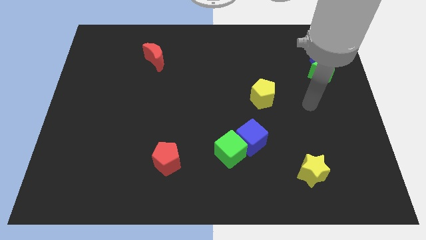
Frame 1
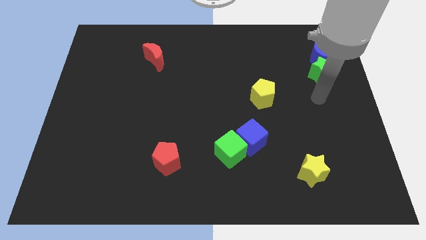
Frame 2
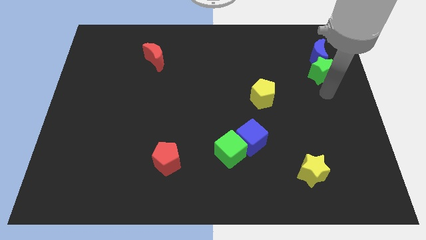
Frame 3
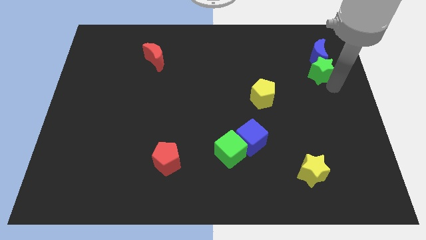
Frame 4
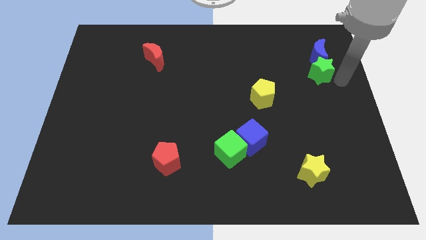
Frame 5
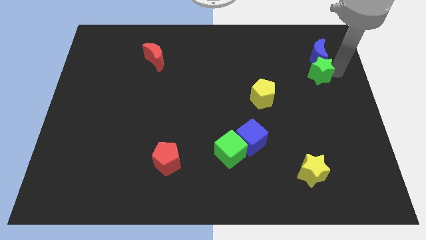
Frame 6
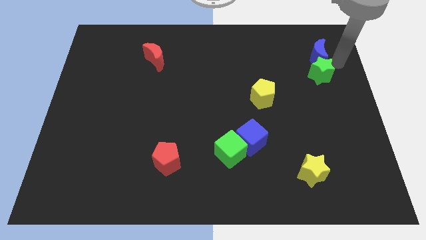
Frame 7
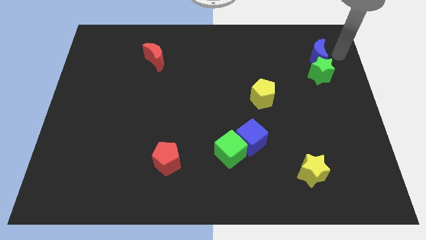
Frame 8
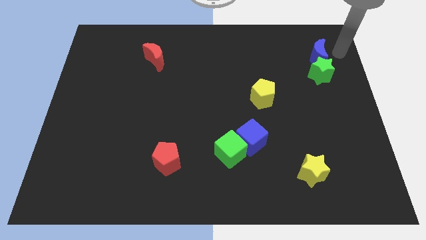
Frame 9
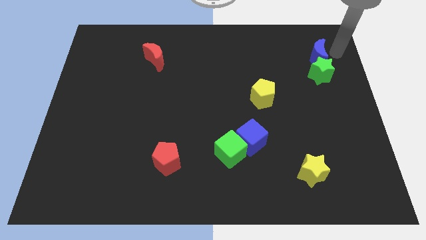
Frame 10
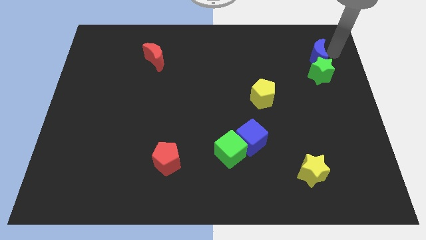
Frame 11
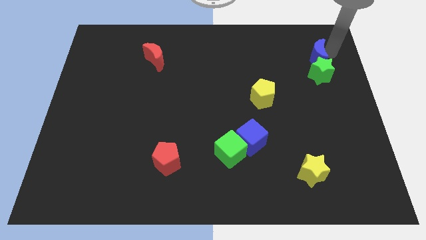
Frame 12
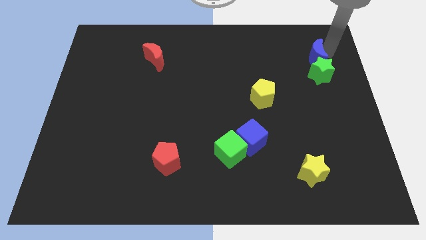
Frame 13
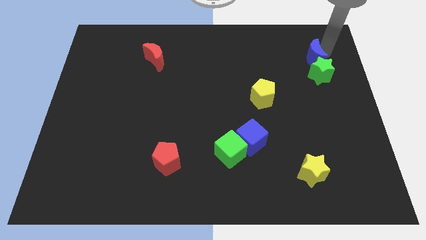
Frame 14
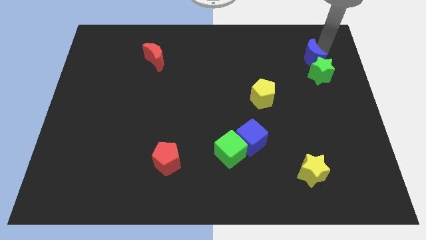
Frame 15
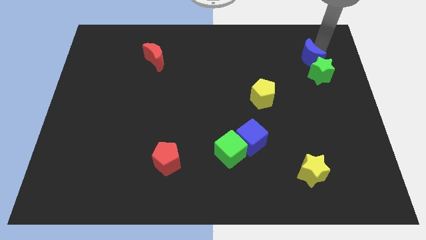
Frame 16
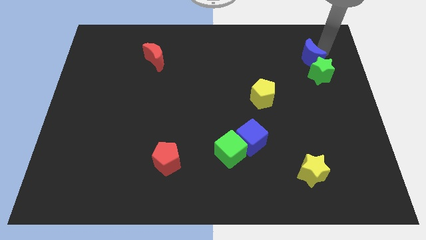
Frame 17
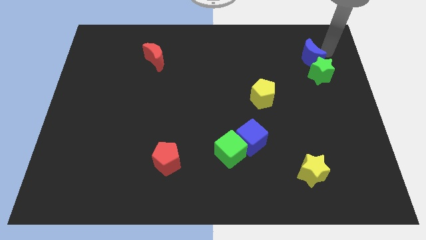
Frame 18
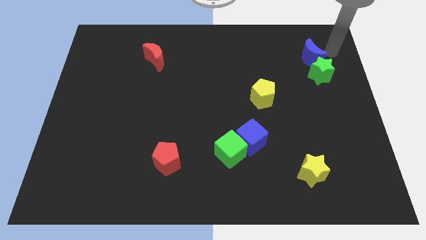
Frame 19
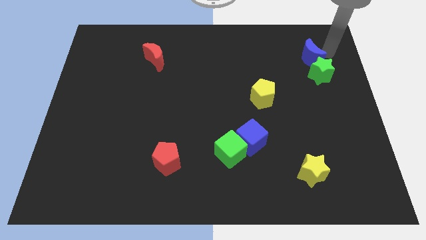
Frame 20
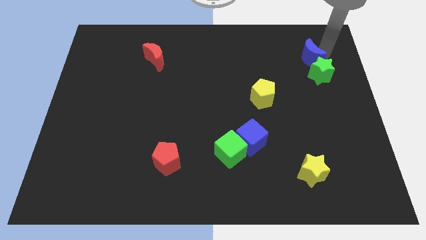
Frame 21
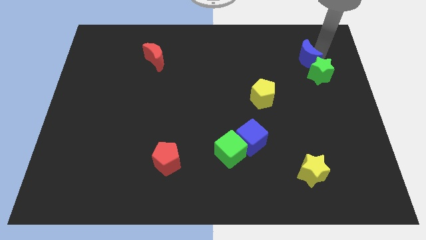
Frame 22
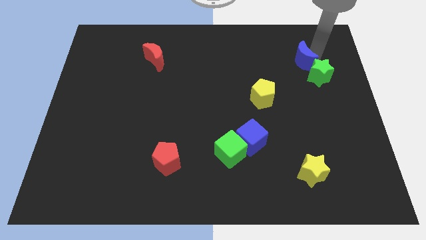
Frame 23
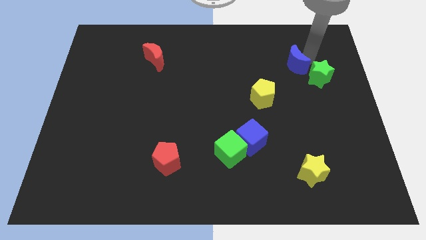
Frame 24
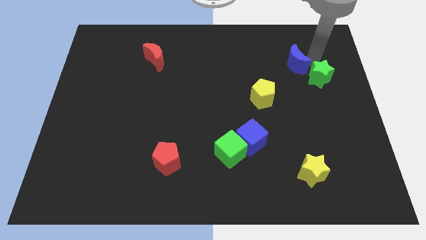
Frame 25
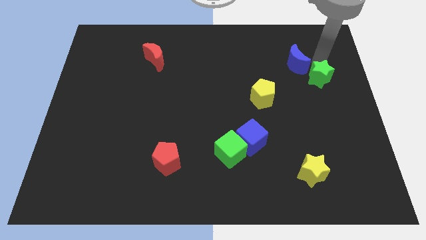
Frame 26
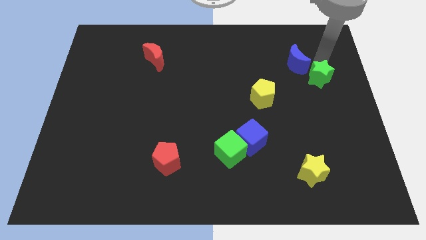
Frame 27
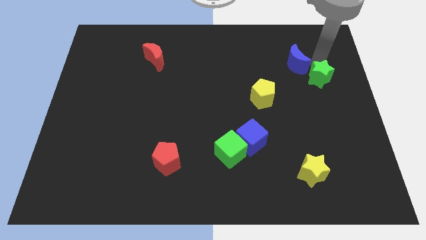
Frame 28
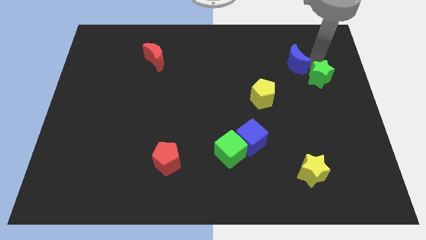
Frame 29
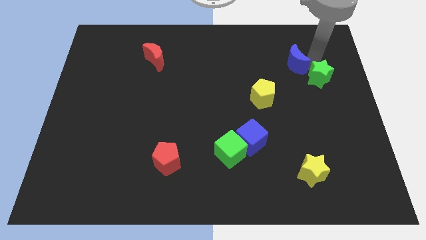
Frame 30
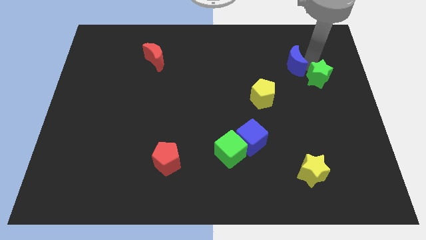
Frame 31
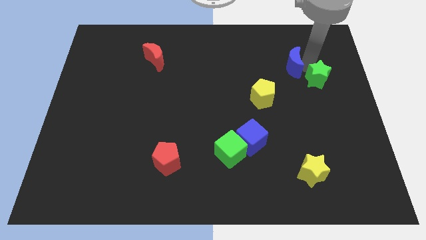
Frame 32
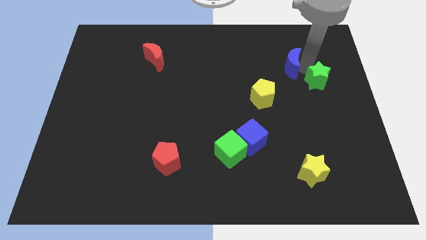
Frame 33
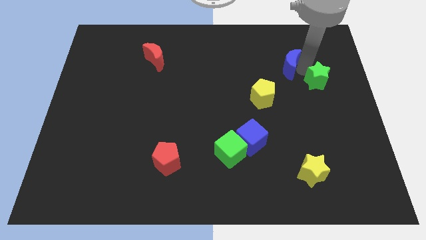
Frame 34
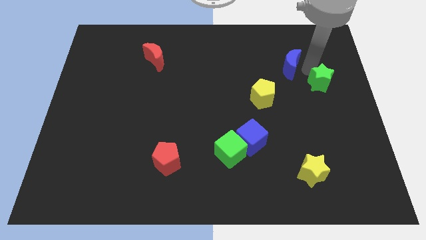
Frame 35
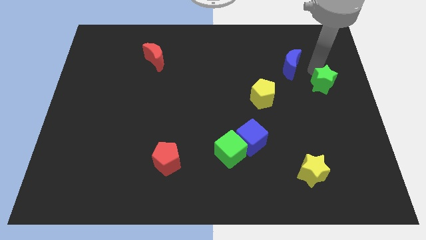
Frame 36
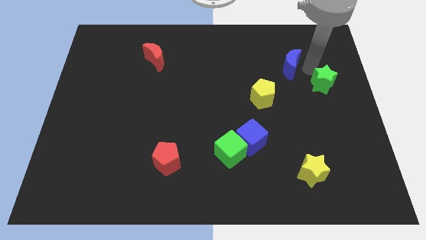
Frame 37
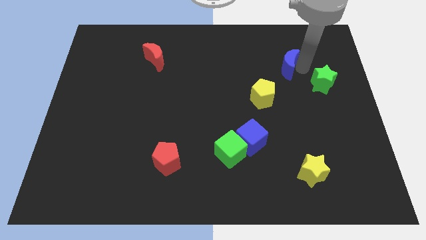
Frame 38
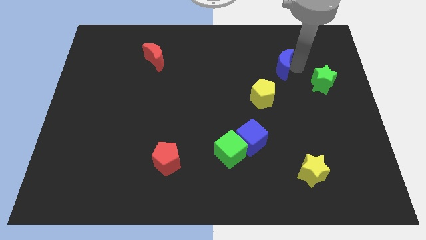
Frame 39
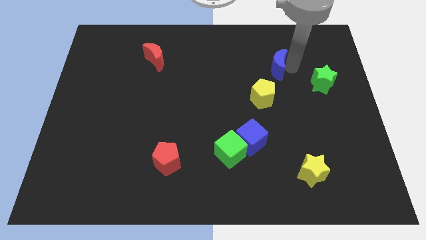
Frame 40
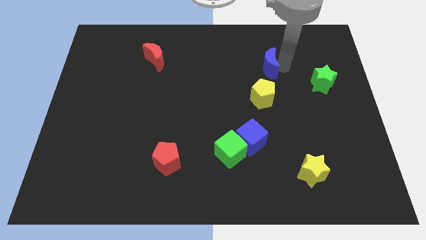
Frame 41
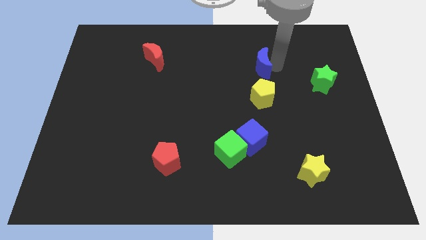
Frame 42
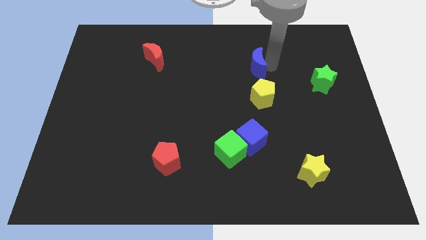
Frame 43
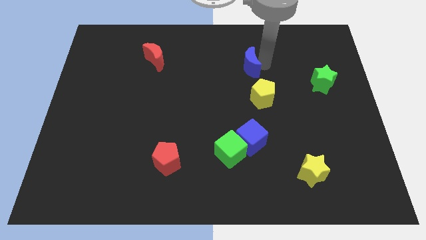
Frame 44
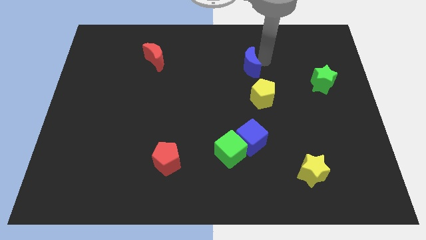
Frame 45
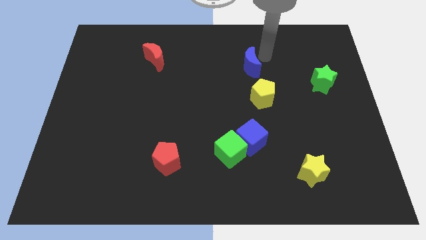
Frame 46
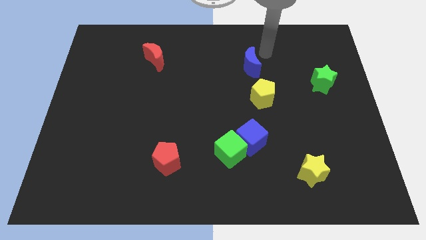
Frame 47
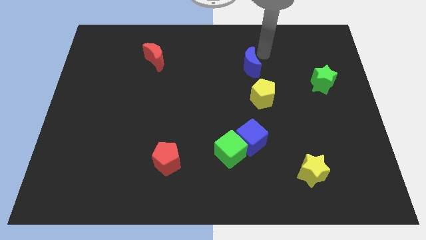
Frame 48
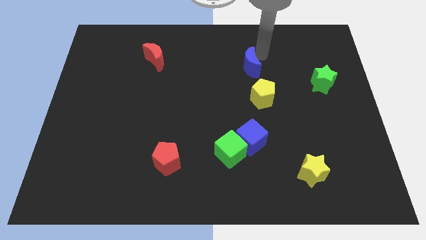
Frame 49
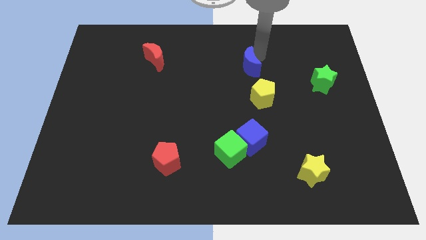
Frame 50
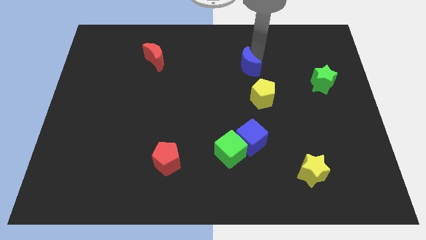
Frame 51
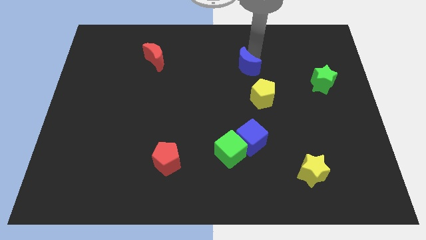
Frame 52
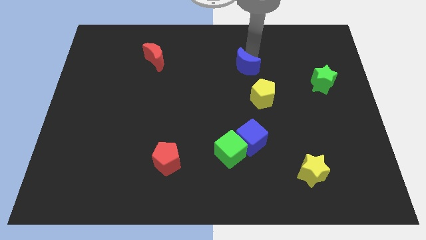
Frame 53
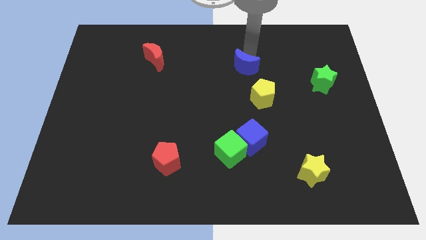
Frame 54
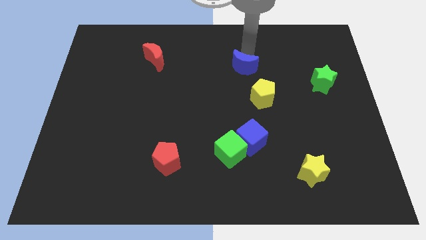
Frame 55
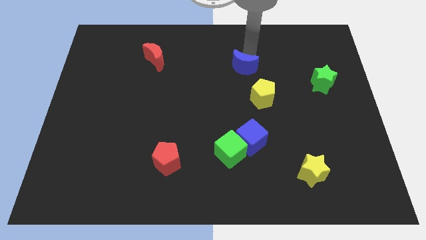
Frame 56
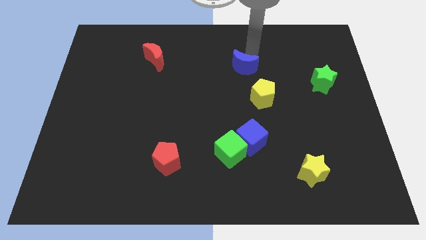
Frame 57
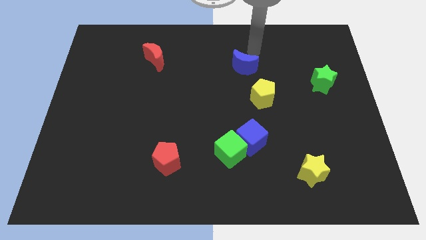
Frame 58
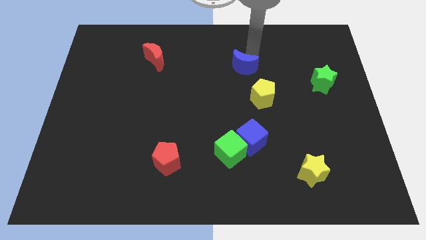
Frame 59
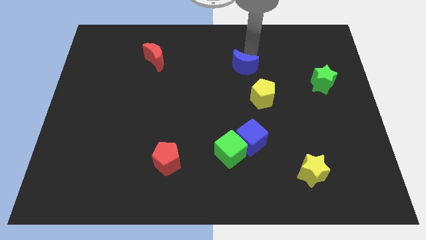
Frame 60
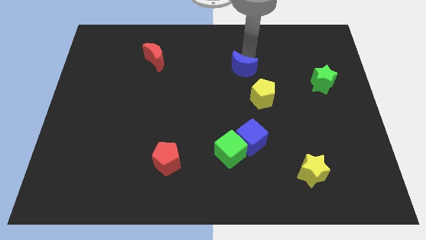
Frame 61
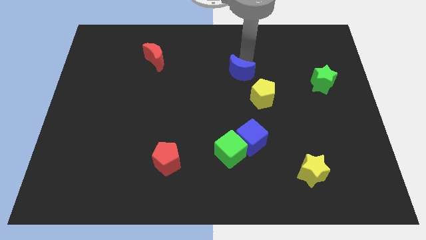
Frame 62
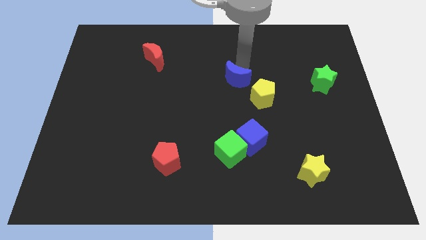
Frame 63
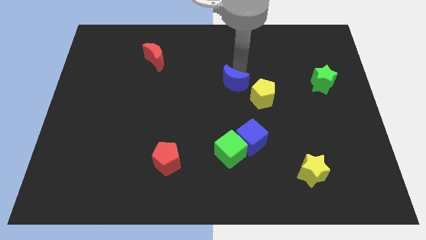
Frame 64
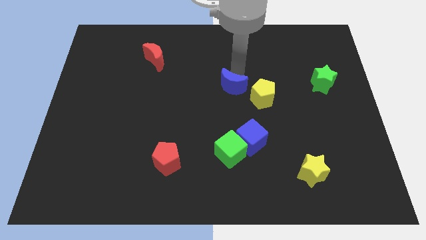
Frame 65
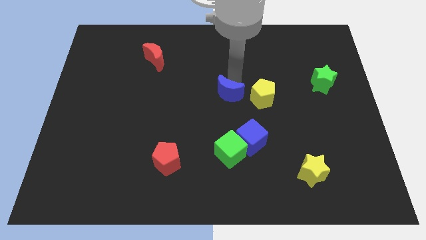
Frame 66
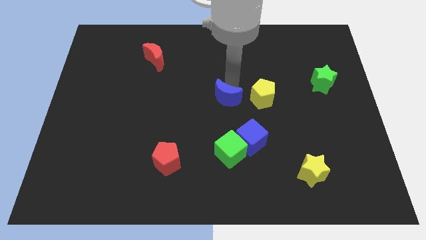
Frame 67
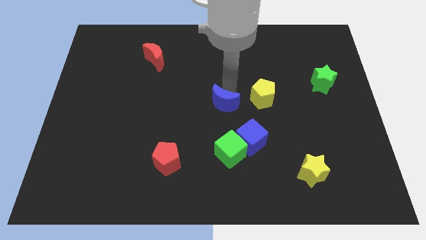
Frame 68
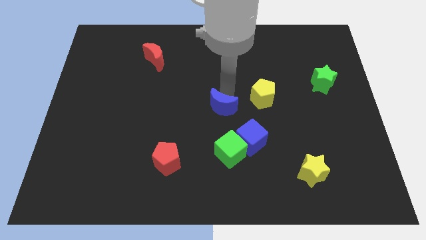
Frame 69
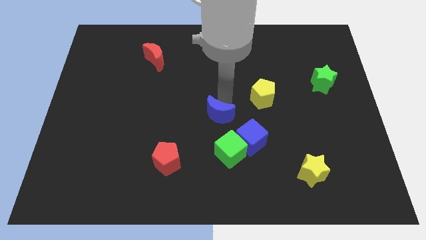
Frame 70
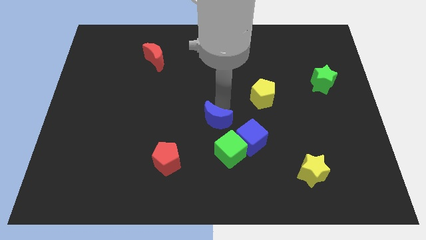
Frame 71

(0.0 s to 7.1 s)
put the blue moon to the top left of the green cube
